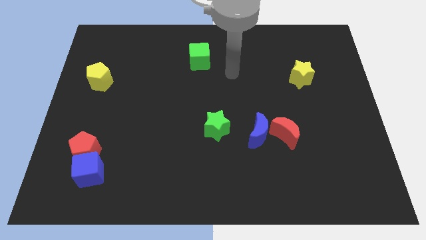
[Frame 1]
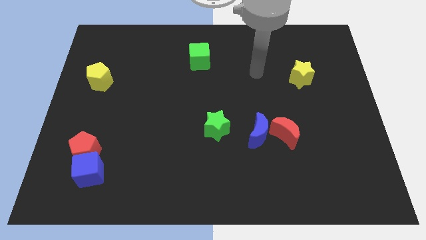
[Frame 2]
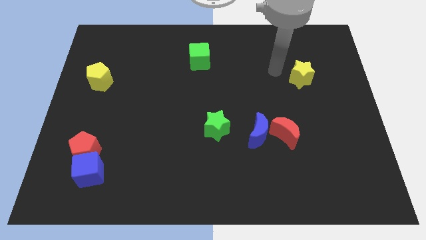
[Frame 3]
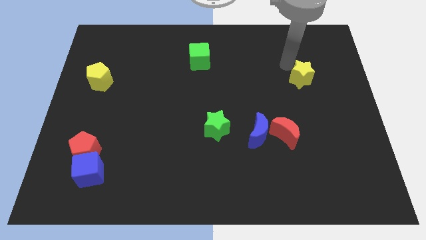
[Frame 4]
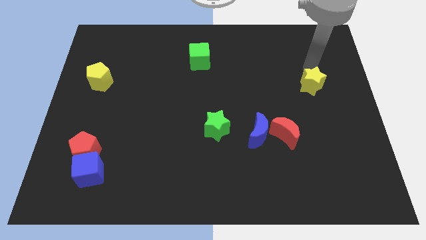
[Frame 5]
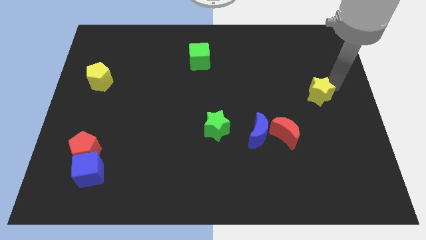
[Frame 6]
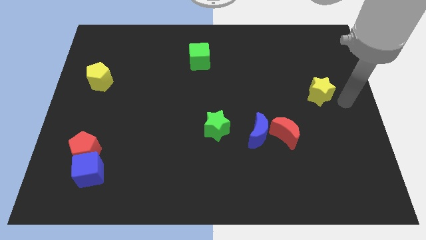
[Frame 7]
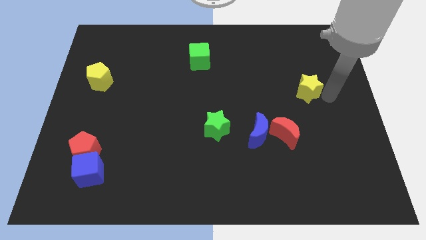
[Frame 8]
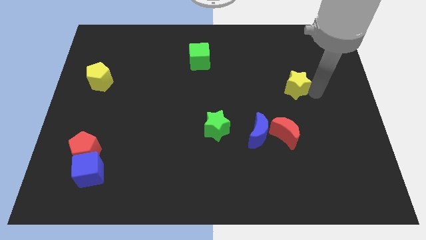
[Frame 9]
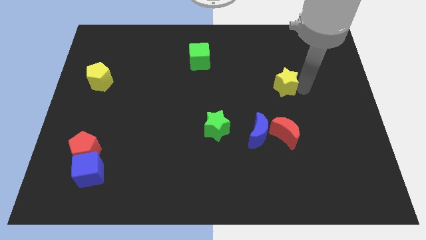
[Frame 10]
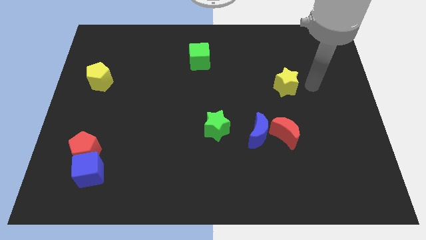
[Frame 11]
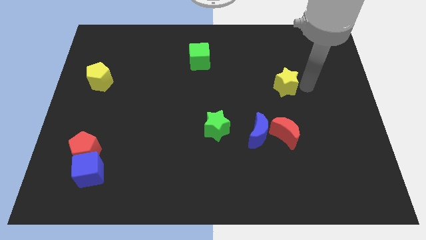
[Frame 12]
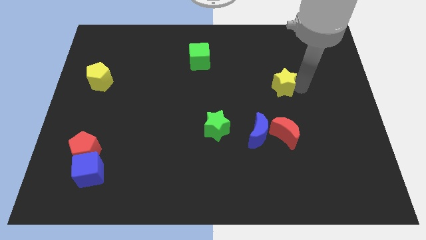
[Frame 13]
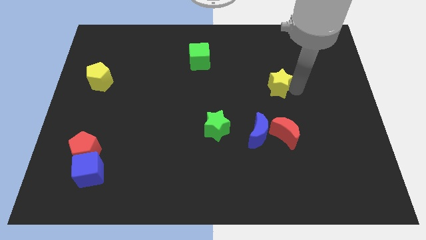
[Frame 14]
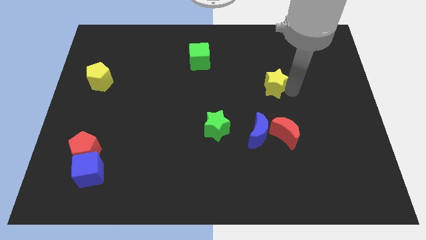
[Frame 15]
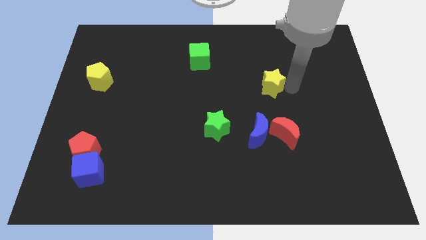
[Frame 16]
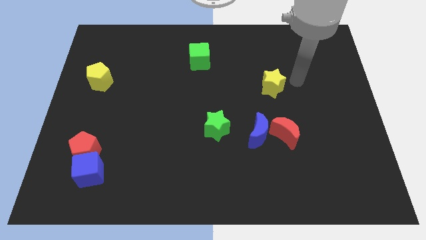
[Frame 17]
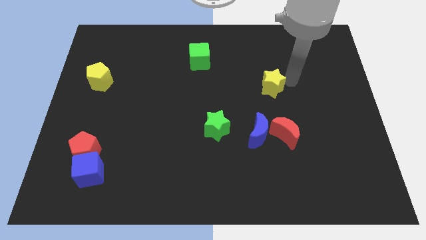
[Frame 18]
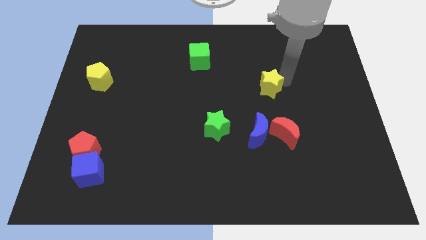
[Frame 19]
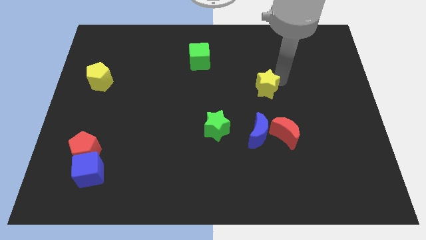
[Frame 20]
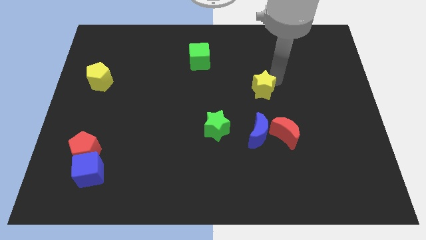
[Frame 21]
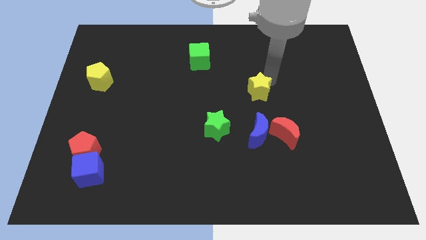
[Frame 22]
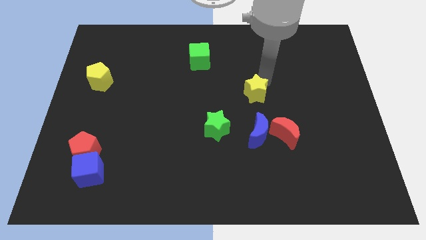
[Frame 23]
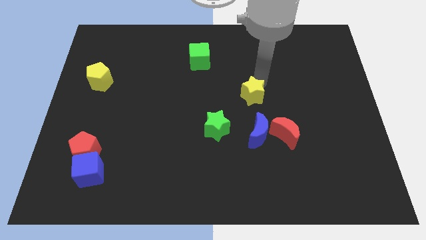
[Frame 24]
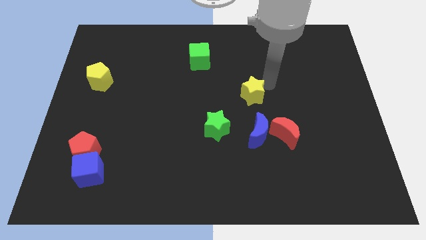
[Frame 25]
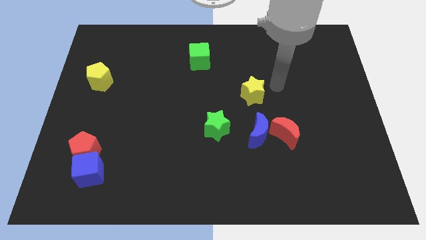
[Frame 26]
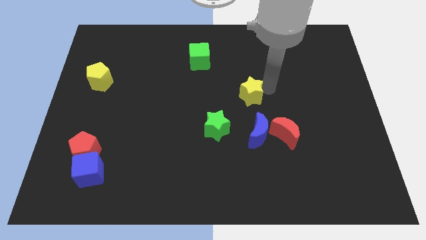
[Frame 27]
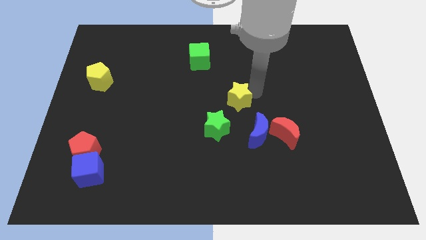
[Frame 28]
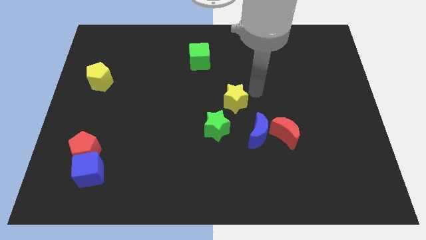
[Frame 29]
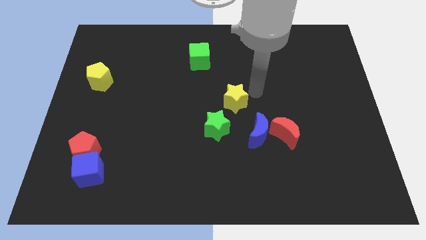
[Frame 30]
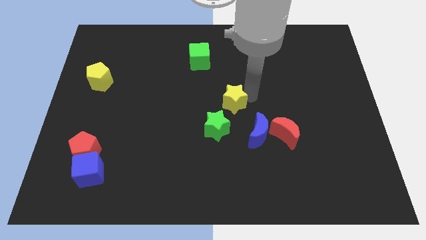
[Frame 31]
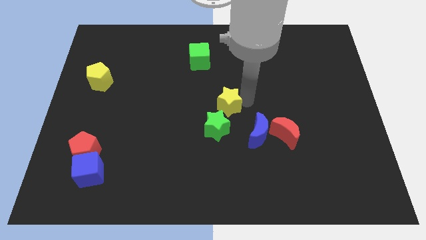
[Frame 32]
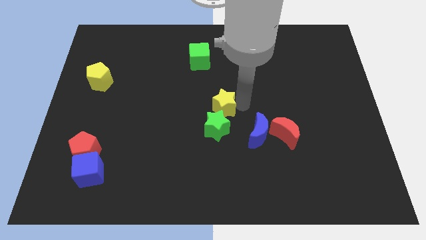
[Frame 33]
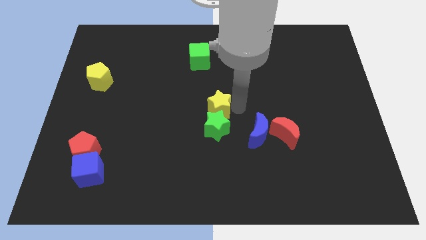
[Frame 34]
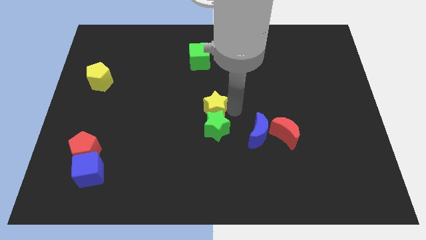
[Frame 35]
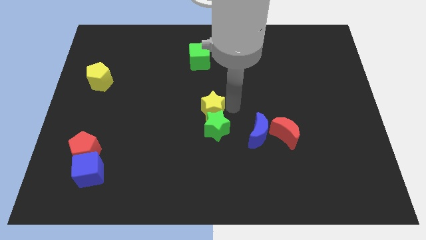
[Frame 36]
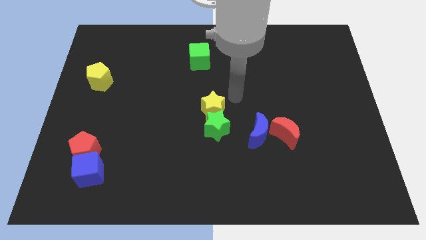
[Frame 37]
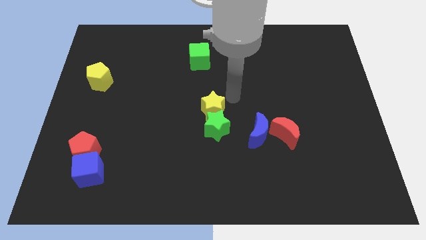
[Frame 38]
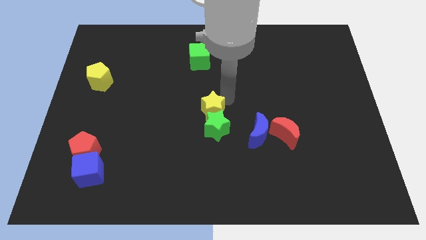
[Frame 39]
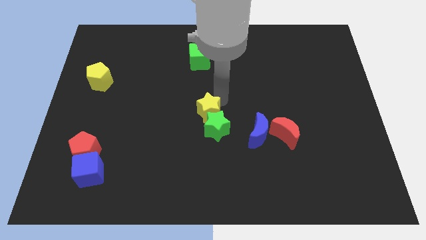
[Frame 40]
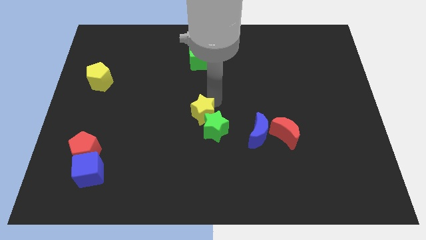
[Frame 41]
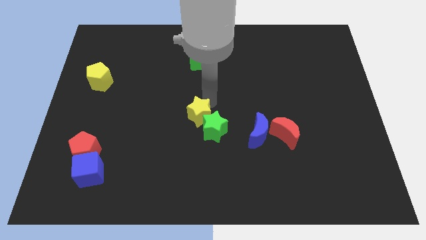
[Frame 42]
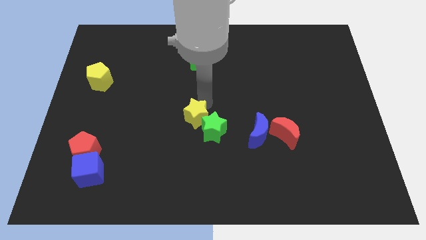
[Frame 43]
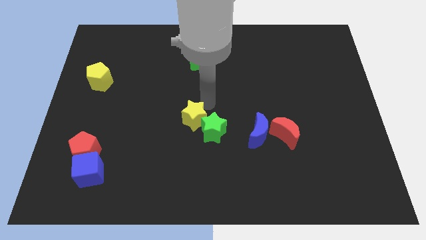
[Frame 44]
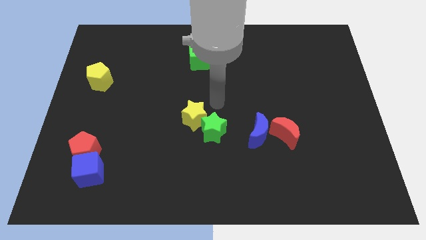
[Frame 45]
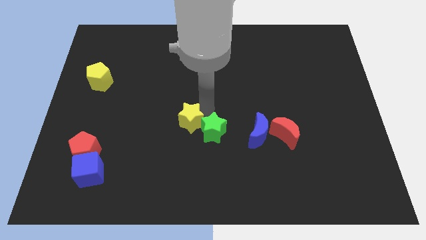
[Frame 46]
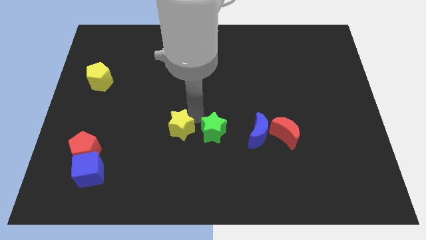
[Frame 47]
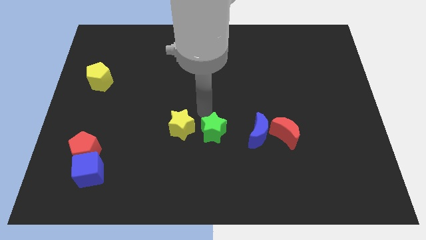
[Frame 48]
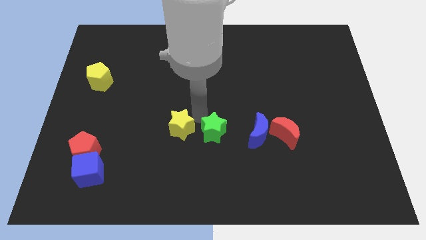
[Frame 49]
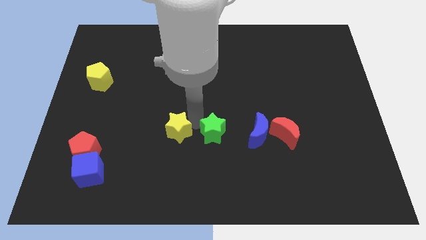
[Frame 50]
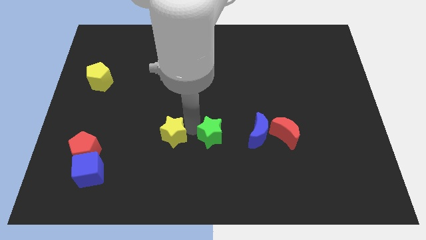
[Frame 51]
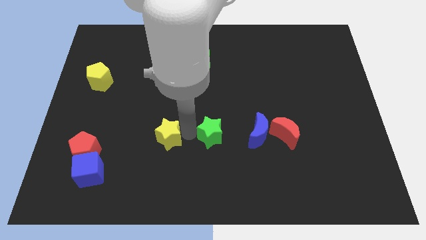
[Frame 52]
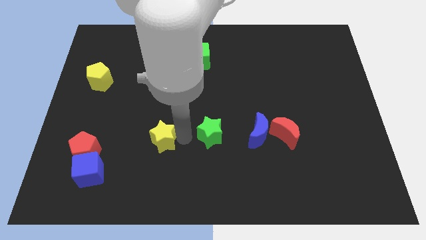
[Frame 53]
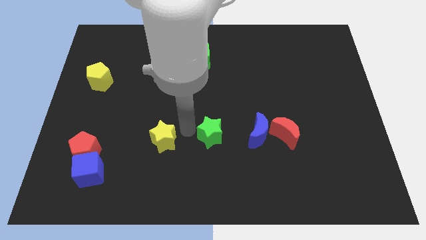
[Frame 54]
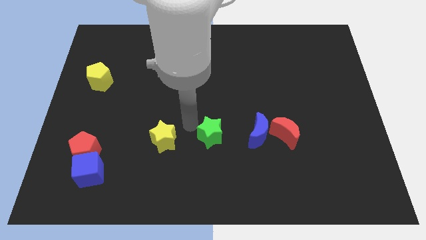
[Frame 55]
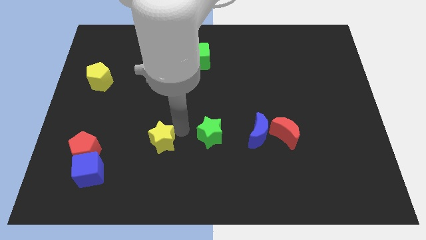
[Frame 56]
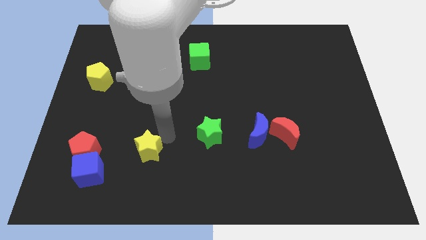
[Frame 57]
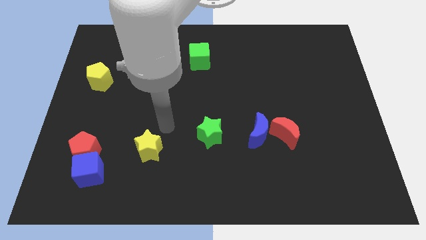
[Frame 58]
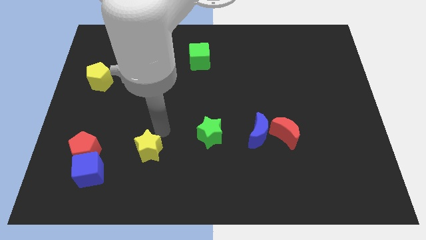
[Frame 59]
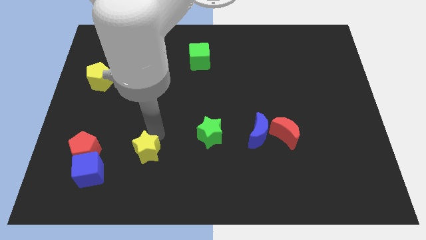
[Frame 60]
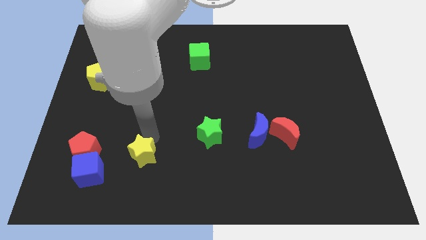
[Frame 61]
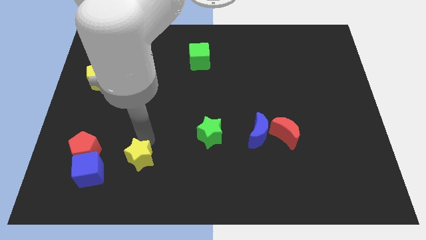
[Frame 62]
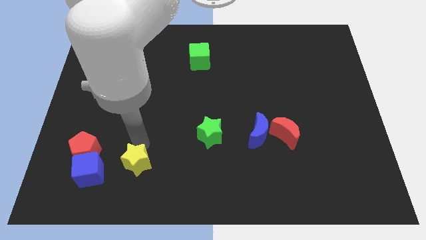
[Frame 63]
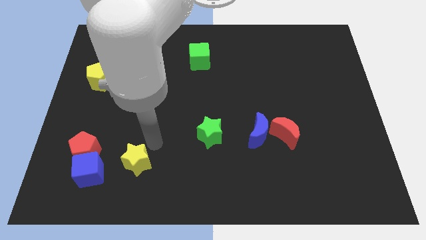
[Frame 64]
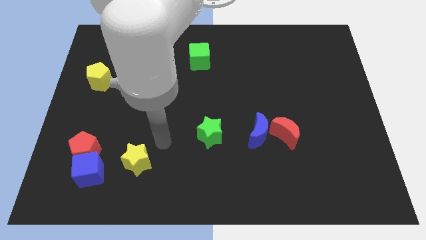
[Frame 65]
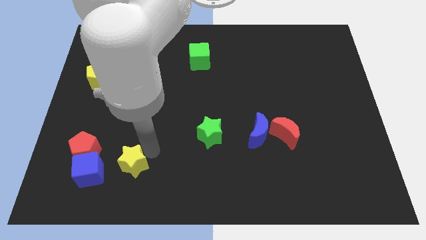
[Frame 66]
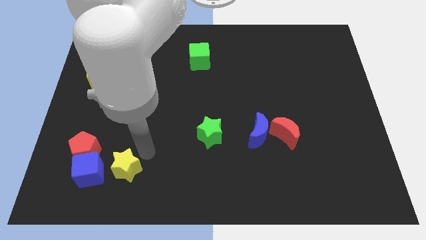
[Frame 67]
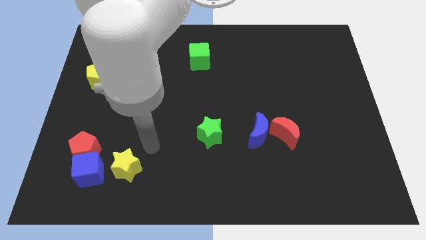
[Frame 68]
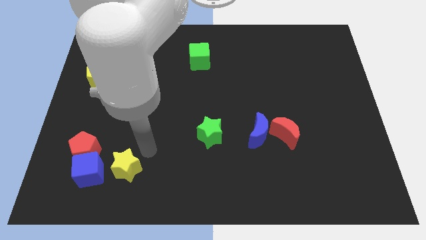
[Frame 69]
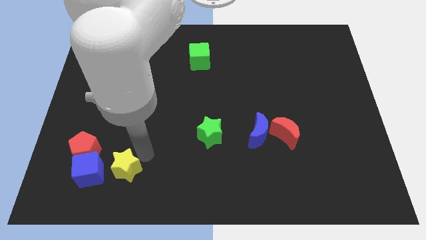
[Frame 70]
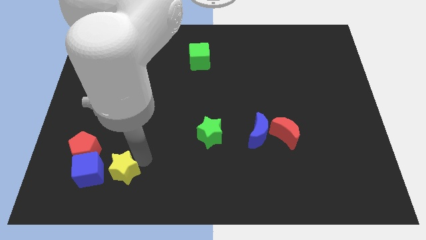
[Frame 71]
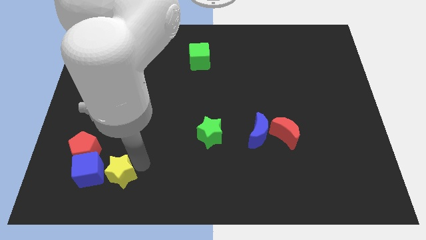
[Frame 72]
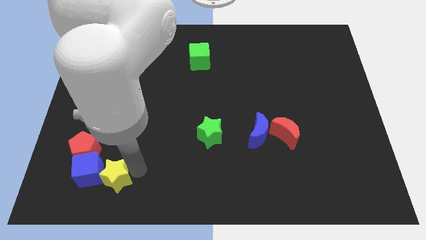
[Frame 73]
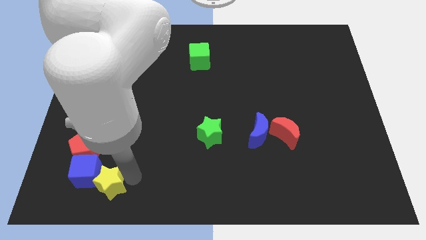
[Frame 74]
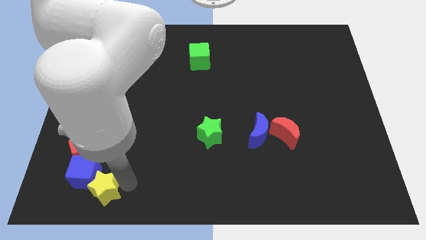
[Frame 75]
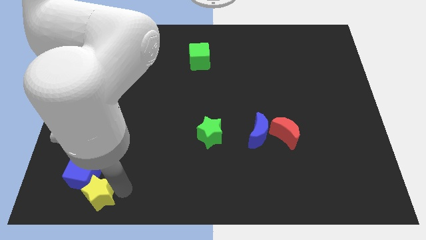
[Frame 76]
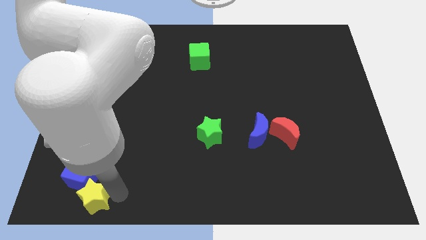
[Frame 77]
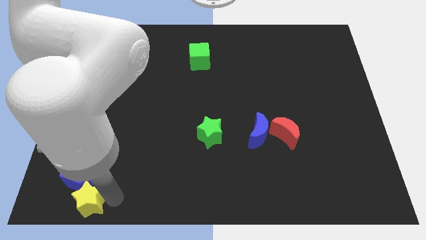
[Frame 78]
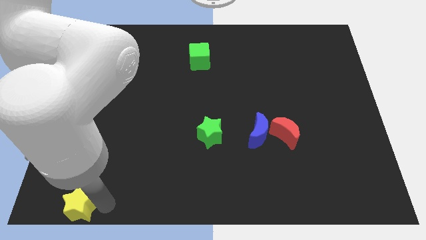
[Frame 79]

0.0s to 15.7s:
move the yellow star to the lower left corner
